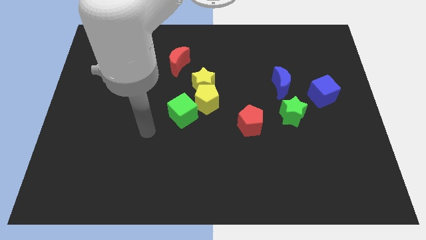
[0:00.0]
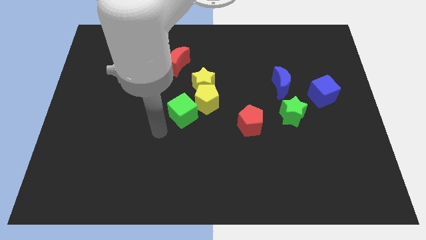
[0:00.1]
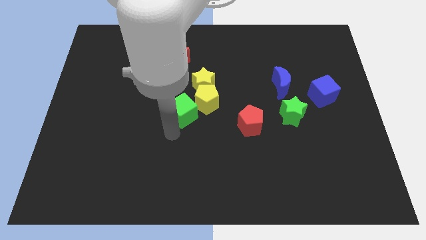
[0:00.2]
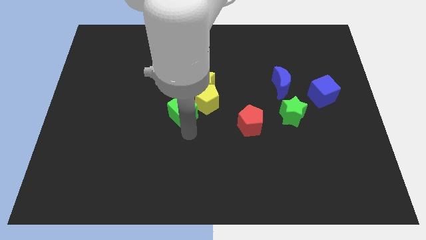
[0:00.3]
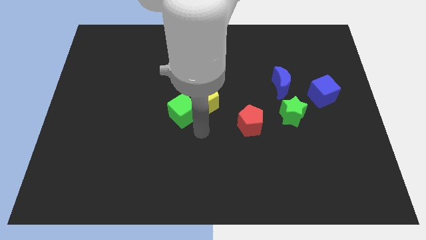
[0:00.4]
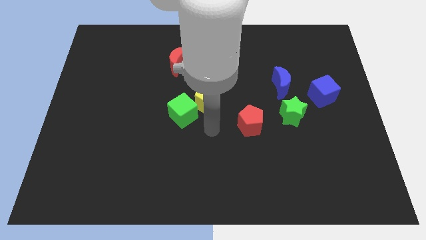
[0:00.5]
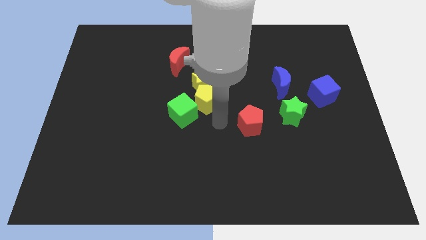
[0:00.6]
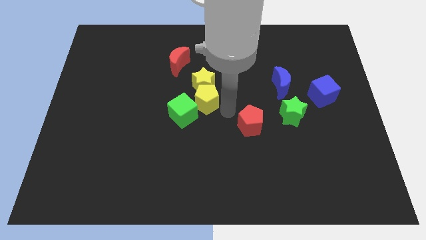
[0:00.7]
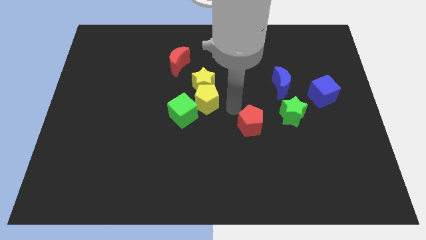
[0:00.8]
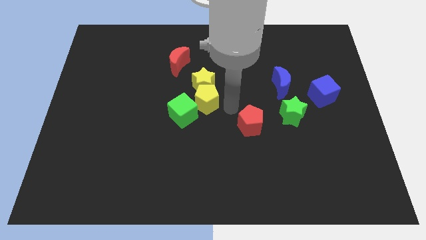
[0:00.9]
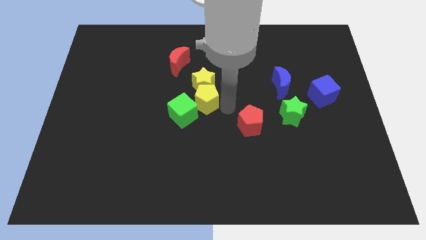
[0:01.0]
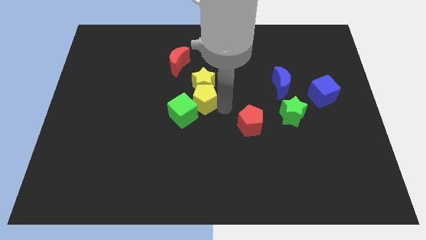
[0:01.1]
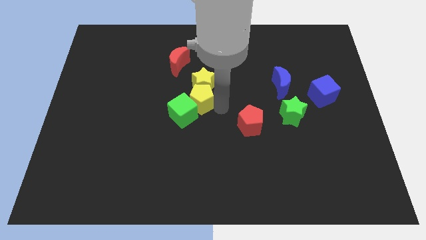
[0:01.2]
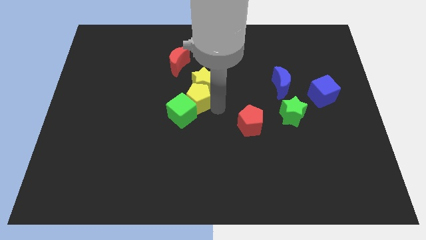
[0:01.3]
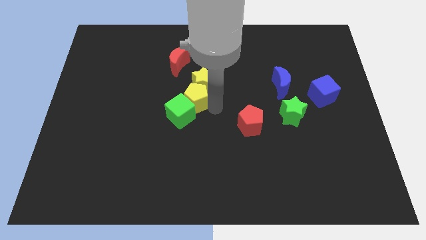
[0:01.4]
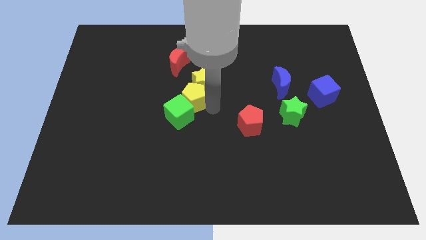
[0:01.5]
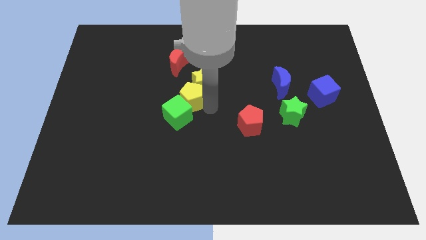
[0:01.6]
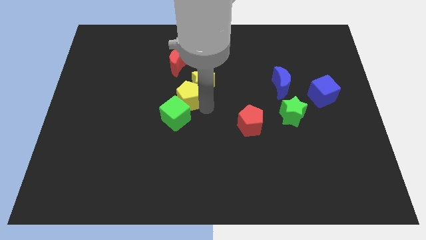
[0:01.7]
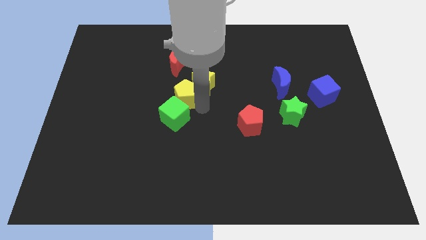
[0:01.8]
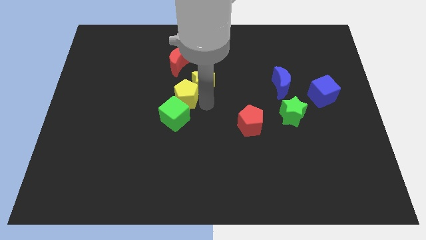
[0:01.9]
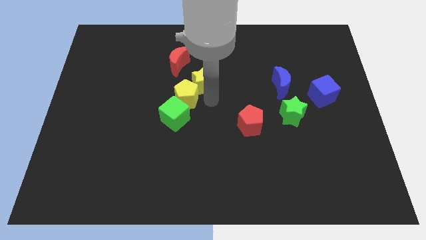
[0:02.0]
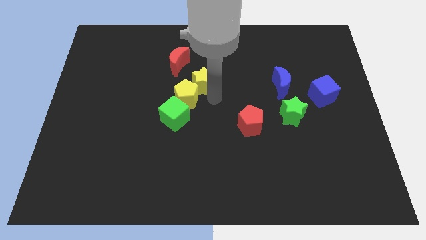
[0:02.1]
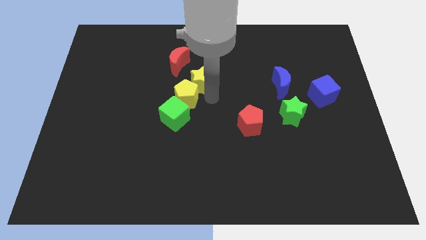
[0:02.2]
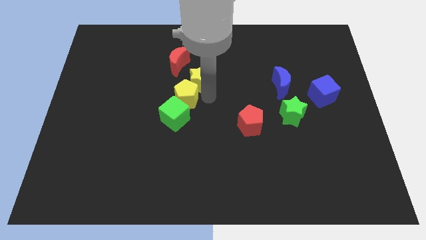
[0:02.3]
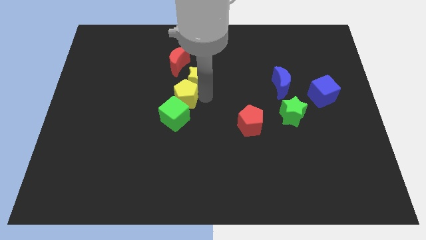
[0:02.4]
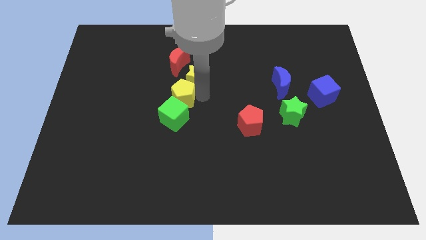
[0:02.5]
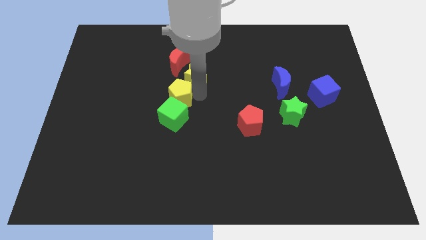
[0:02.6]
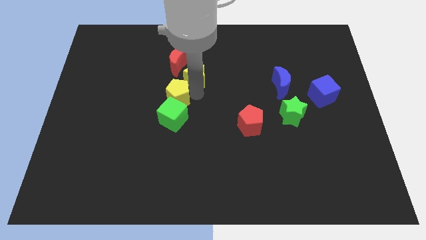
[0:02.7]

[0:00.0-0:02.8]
push the yellow pentagon somewhat to the left

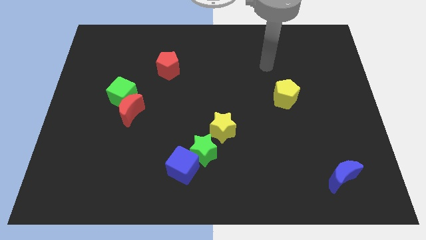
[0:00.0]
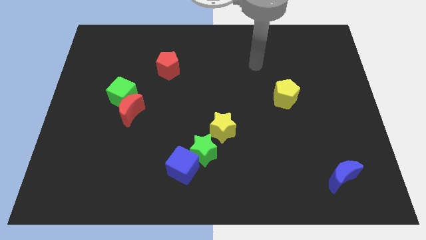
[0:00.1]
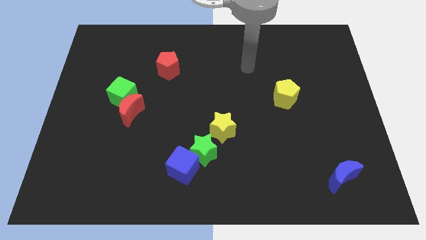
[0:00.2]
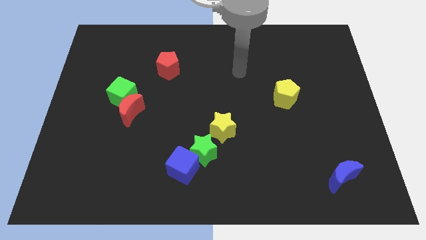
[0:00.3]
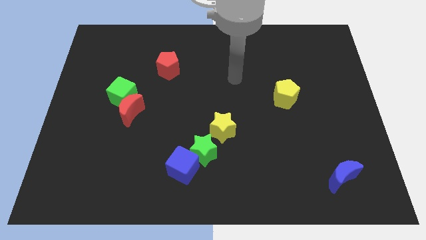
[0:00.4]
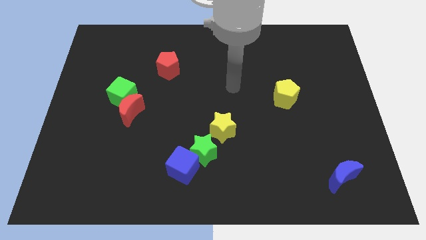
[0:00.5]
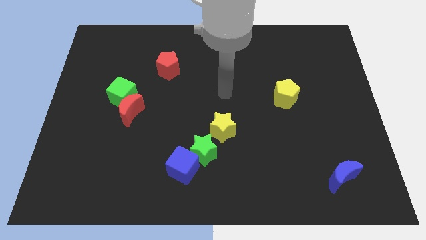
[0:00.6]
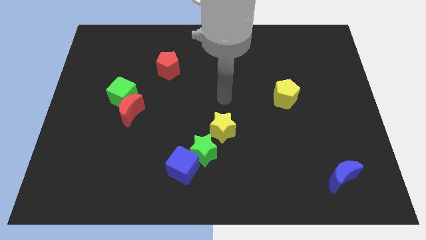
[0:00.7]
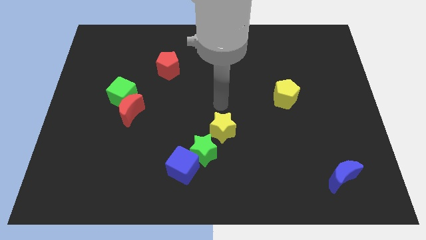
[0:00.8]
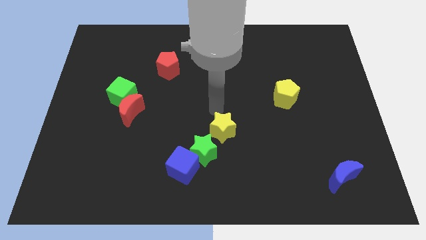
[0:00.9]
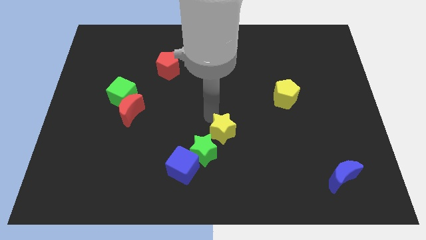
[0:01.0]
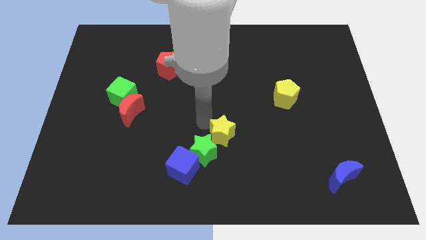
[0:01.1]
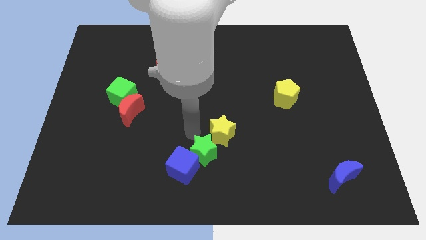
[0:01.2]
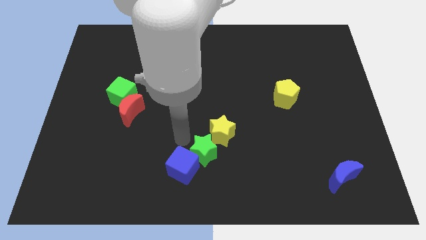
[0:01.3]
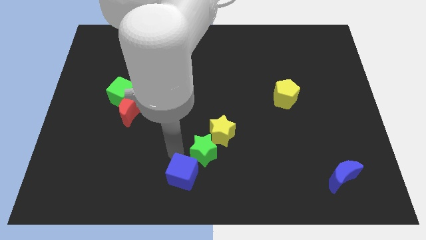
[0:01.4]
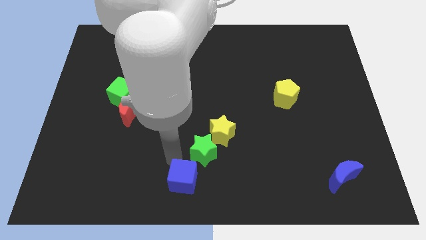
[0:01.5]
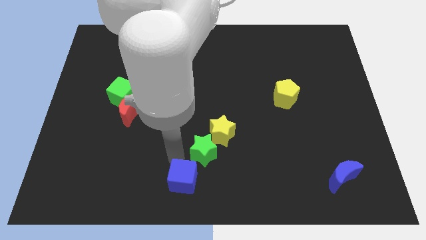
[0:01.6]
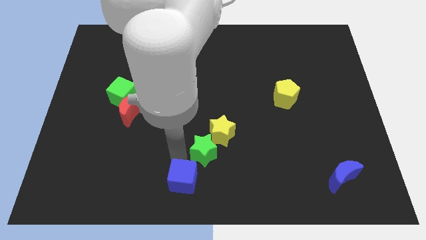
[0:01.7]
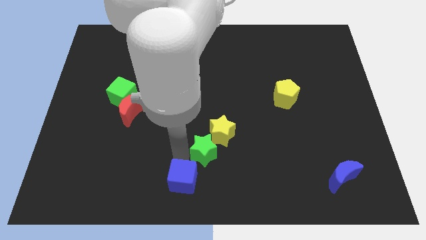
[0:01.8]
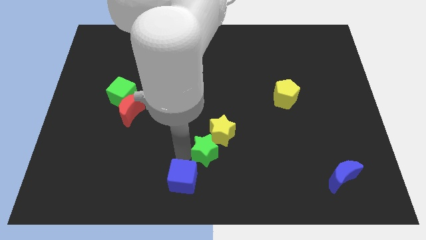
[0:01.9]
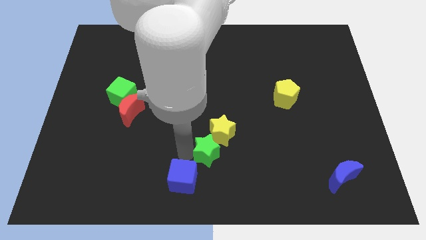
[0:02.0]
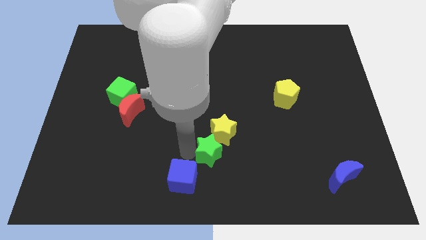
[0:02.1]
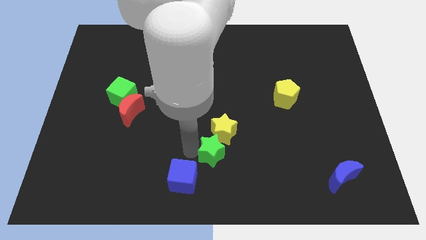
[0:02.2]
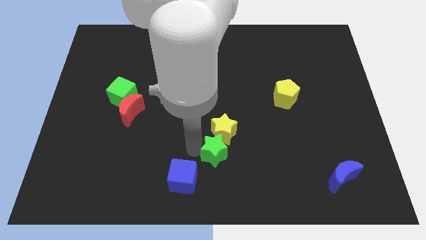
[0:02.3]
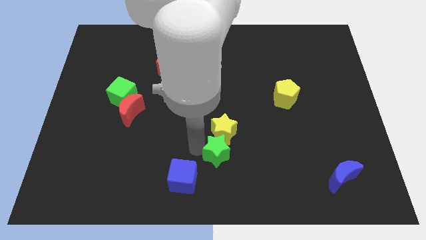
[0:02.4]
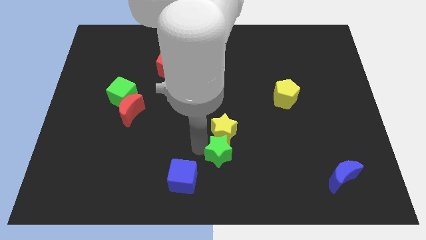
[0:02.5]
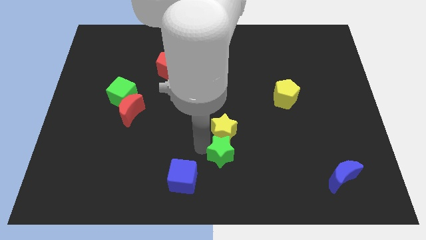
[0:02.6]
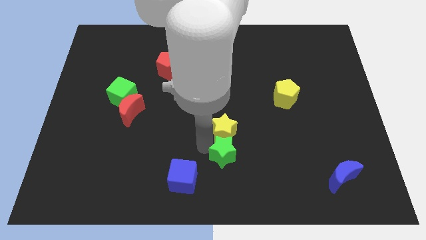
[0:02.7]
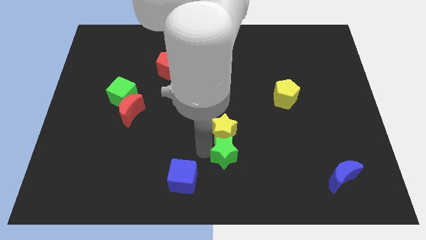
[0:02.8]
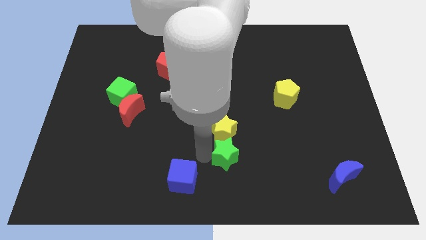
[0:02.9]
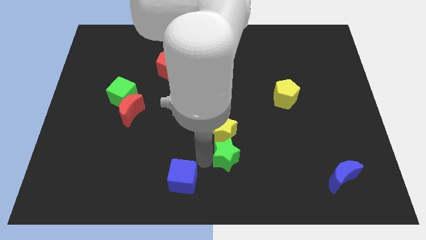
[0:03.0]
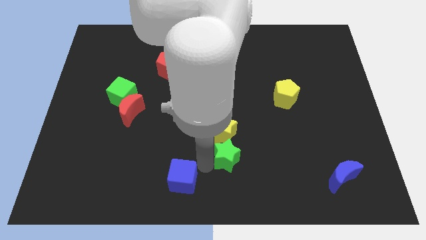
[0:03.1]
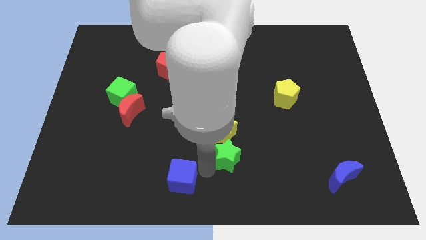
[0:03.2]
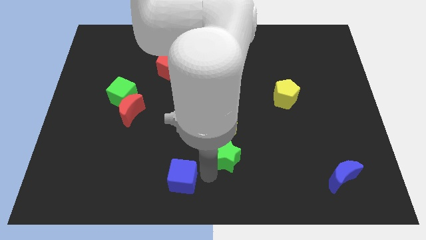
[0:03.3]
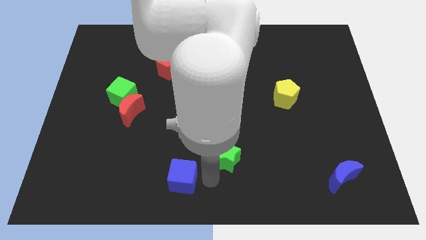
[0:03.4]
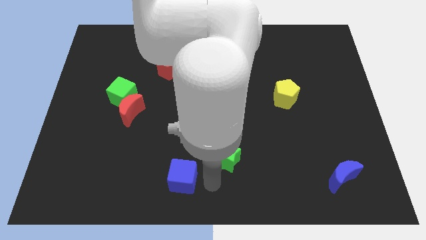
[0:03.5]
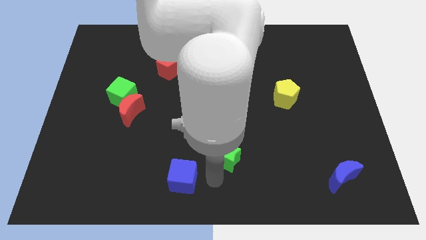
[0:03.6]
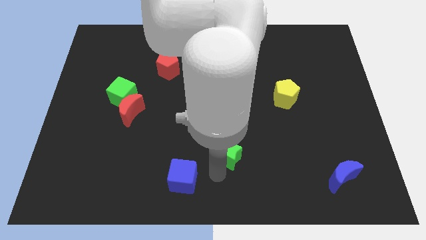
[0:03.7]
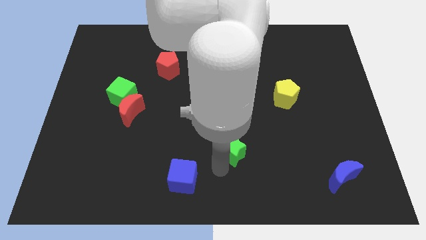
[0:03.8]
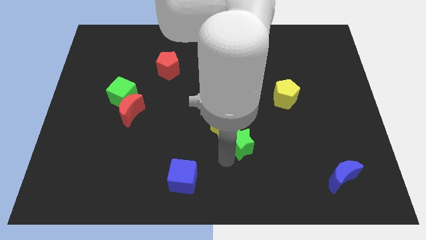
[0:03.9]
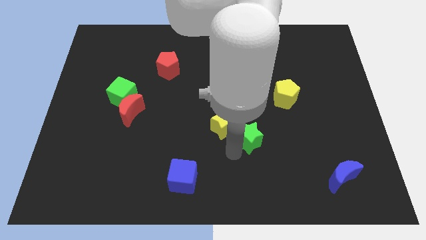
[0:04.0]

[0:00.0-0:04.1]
push the green star up and to the right a little bit

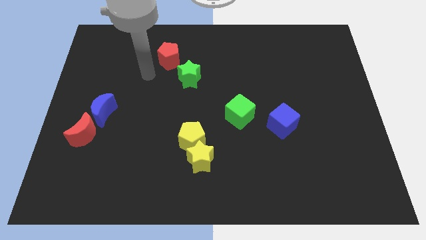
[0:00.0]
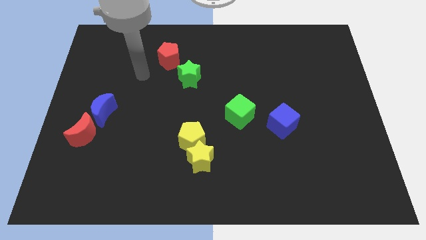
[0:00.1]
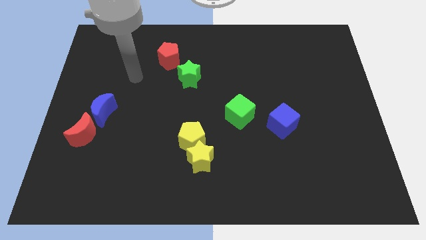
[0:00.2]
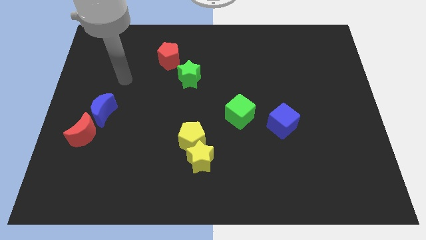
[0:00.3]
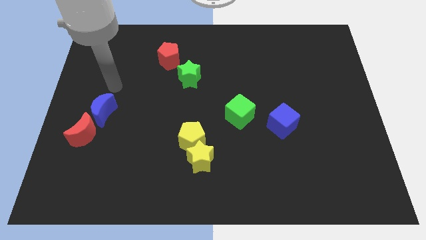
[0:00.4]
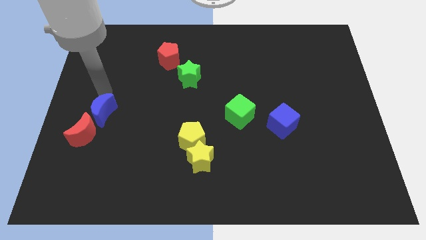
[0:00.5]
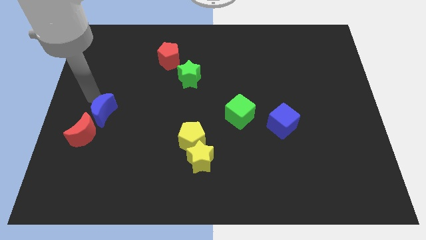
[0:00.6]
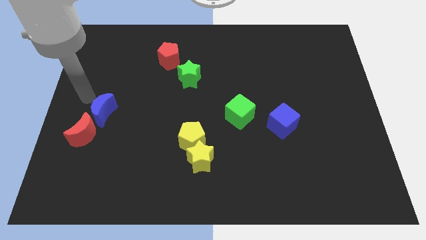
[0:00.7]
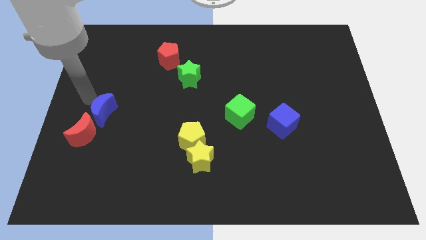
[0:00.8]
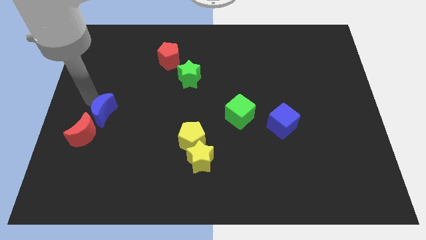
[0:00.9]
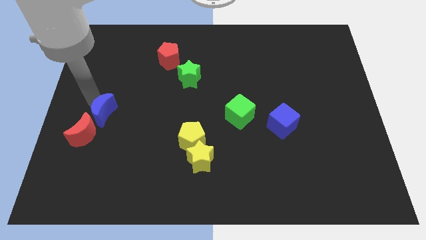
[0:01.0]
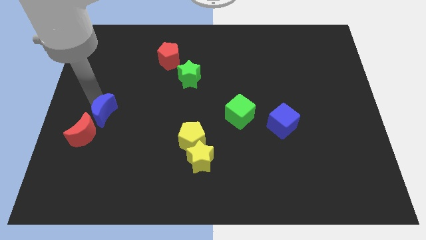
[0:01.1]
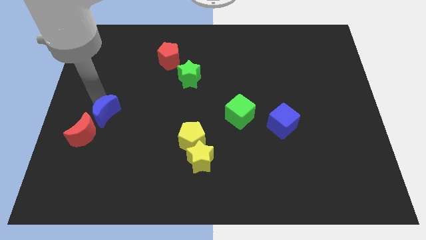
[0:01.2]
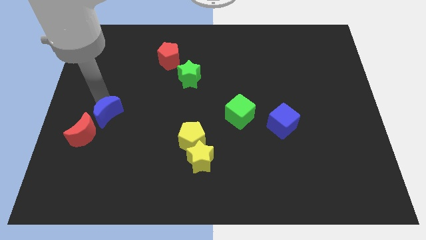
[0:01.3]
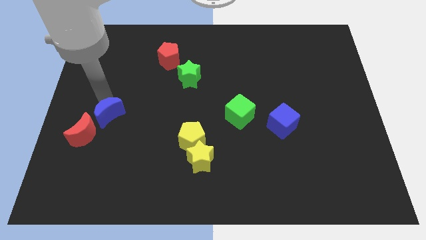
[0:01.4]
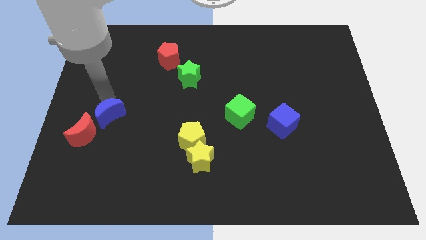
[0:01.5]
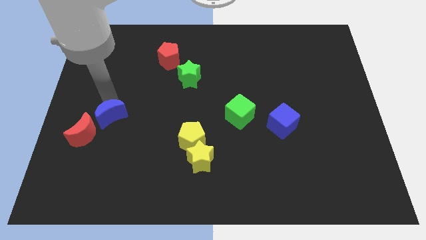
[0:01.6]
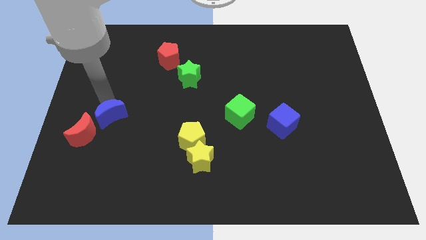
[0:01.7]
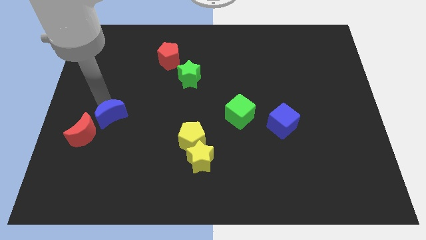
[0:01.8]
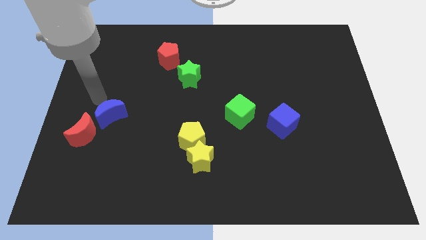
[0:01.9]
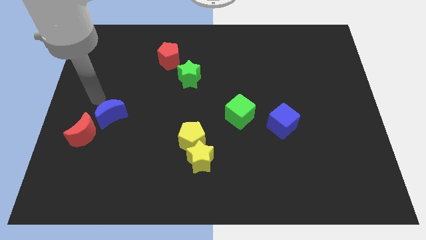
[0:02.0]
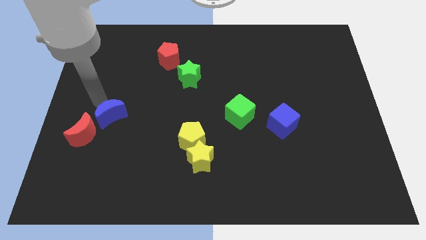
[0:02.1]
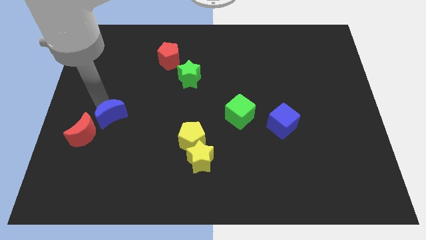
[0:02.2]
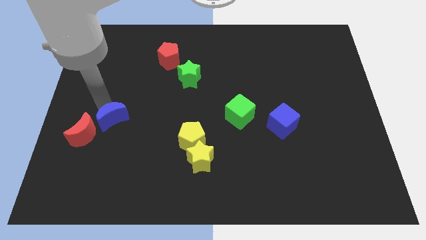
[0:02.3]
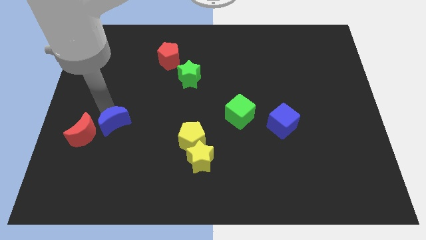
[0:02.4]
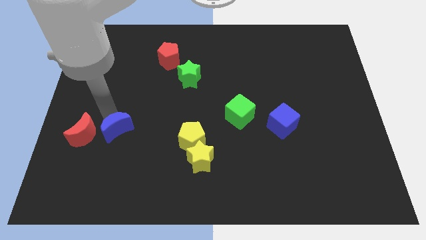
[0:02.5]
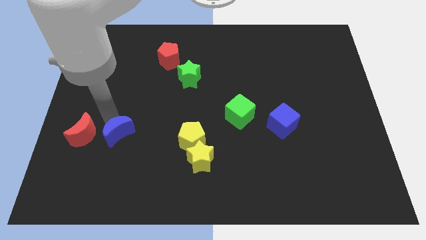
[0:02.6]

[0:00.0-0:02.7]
slightly push the blue moon downwards and to the right
